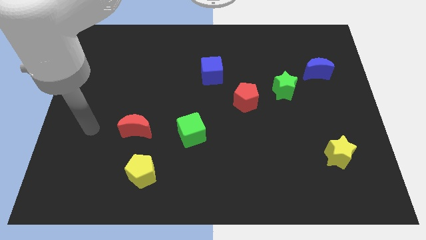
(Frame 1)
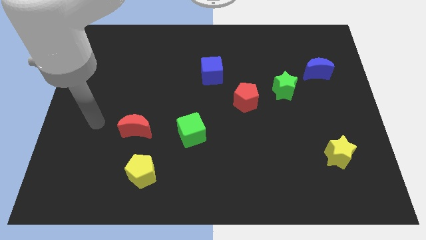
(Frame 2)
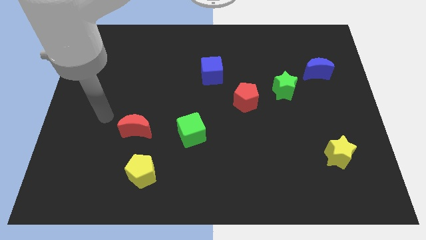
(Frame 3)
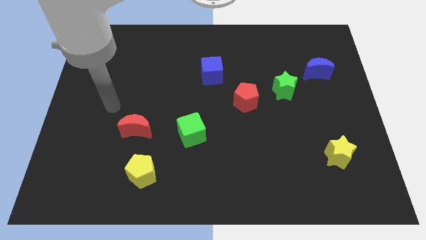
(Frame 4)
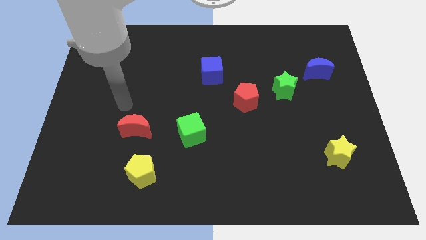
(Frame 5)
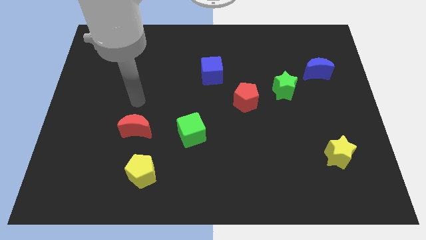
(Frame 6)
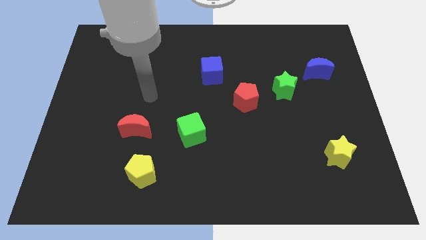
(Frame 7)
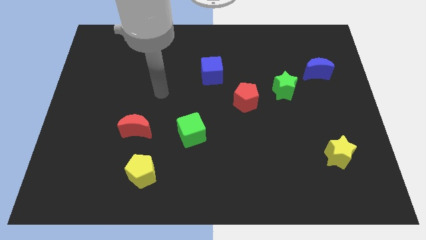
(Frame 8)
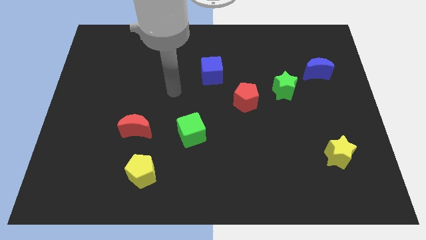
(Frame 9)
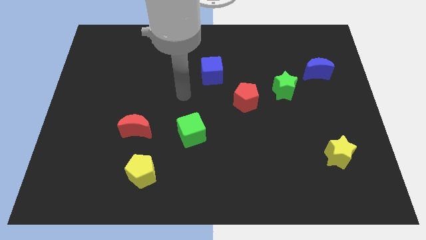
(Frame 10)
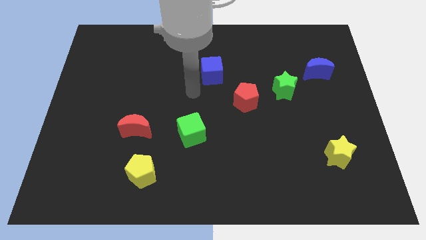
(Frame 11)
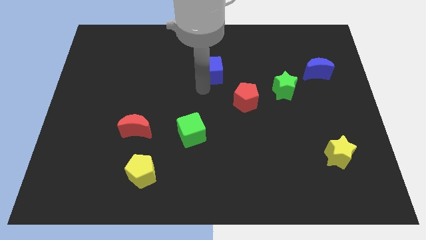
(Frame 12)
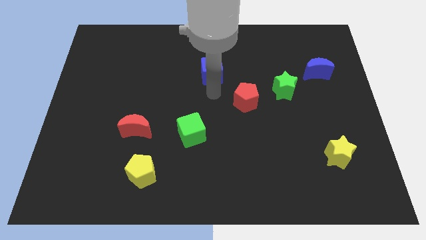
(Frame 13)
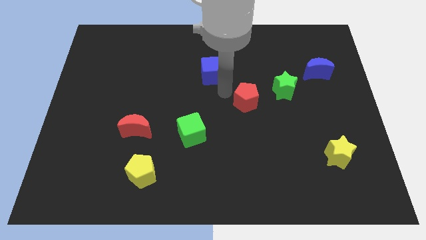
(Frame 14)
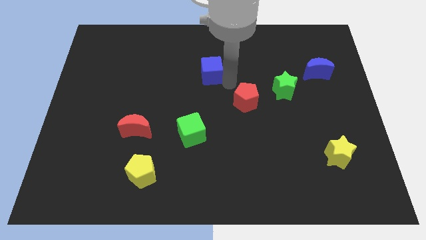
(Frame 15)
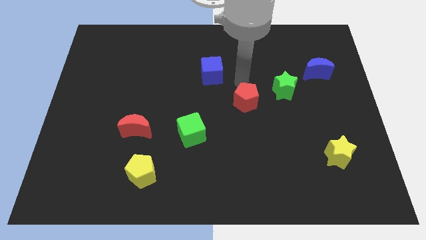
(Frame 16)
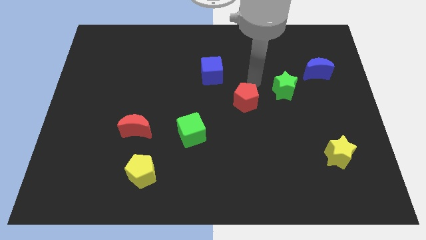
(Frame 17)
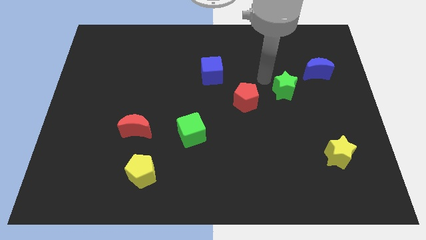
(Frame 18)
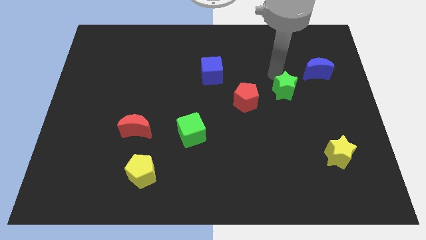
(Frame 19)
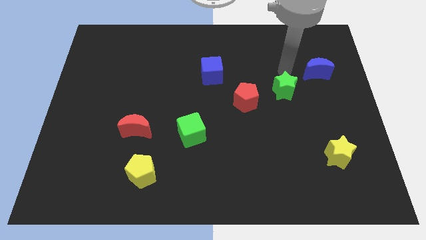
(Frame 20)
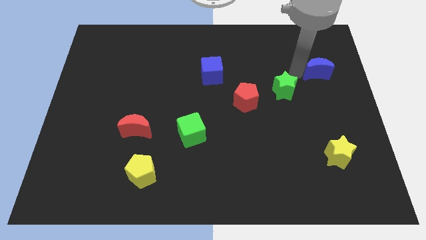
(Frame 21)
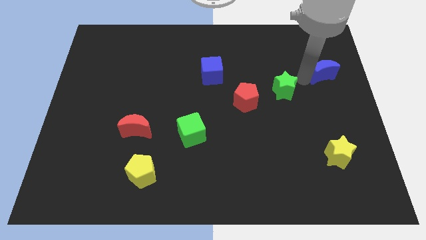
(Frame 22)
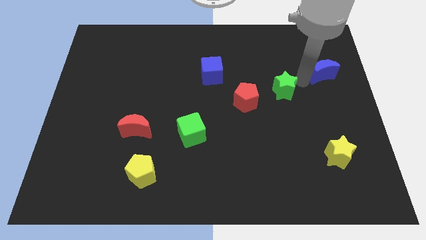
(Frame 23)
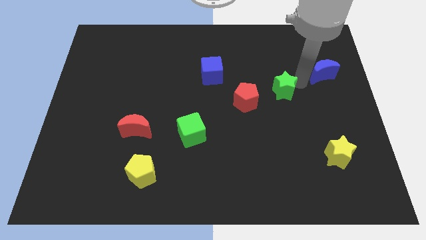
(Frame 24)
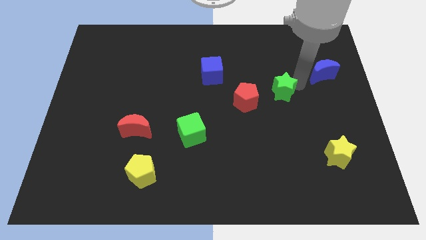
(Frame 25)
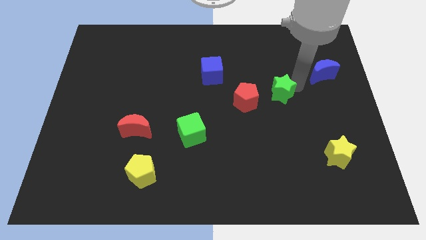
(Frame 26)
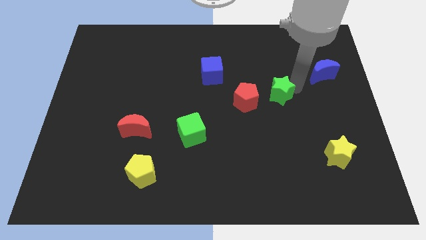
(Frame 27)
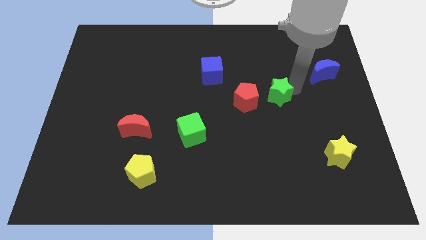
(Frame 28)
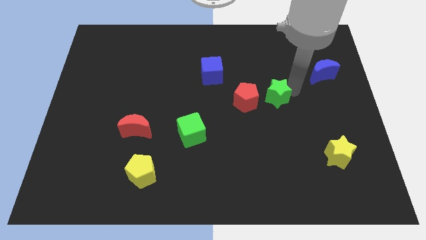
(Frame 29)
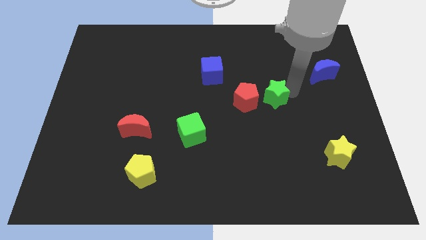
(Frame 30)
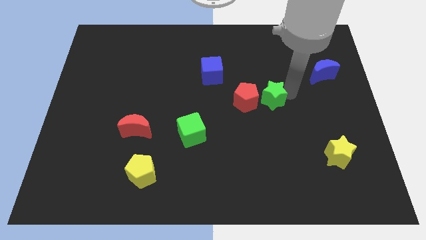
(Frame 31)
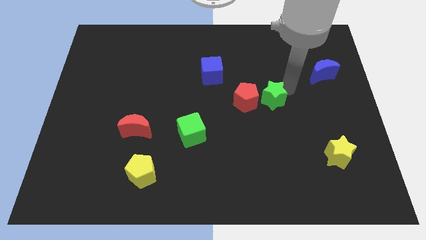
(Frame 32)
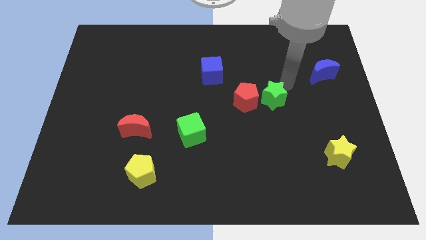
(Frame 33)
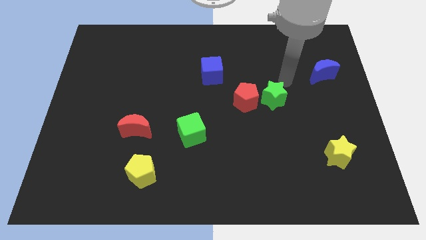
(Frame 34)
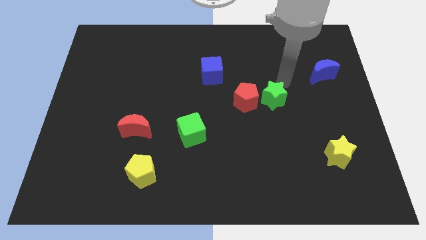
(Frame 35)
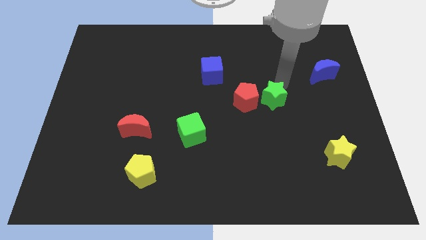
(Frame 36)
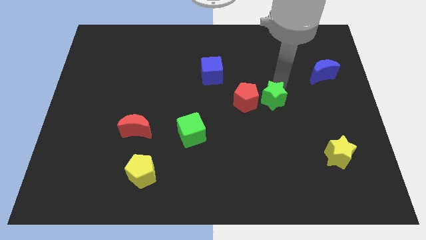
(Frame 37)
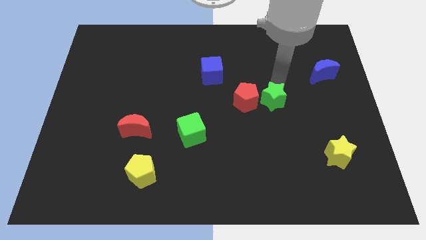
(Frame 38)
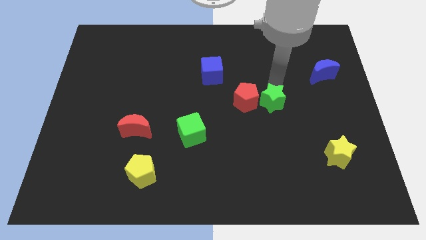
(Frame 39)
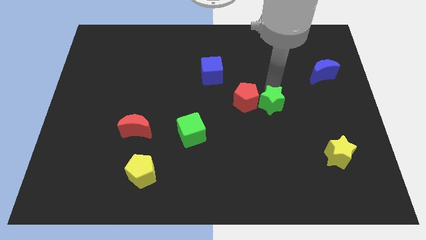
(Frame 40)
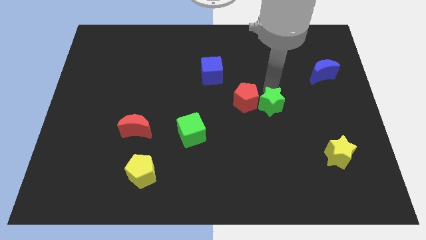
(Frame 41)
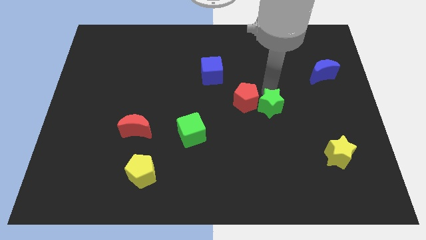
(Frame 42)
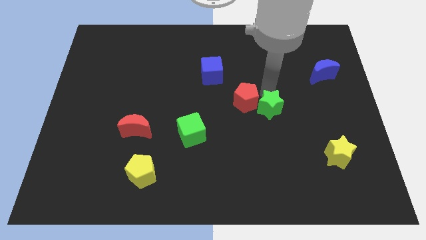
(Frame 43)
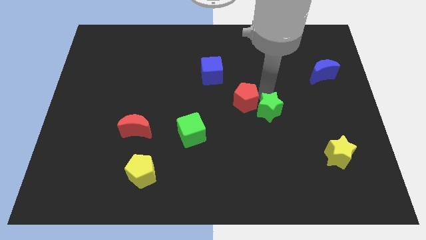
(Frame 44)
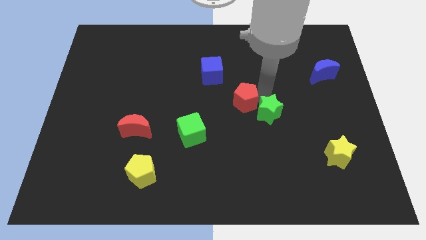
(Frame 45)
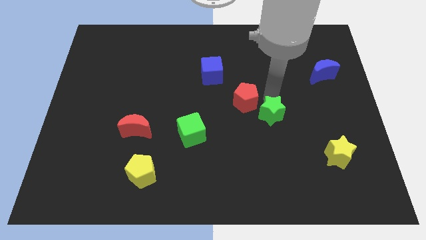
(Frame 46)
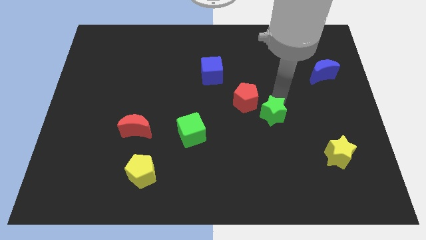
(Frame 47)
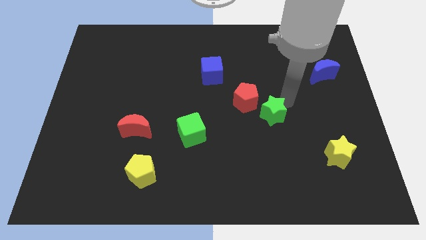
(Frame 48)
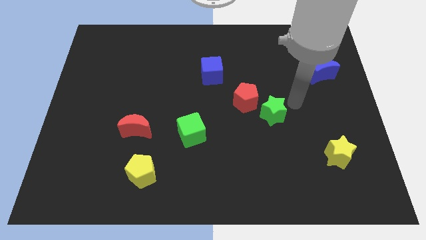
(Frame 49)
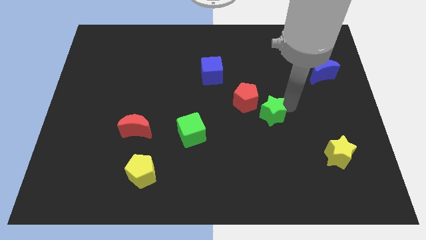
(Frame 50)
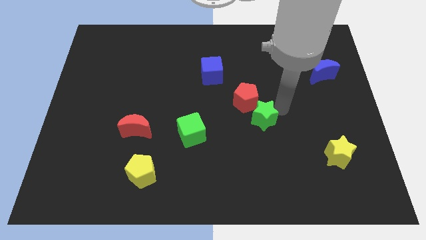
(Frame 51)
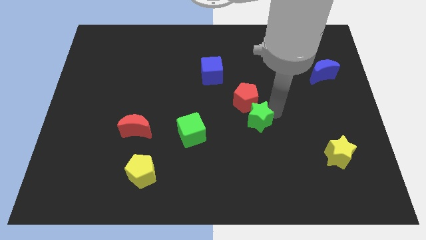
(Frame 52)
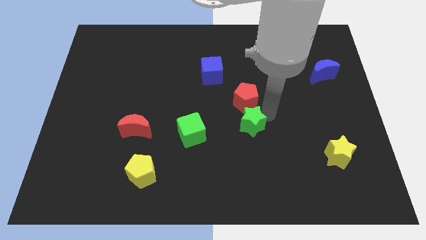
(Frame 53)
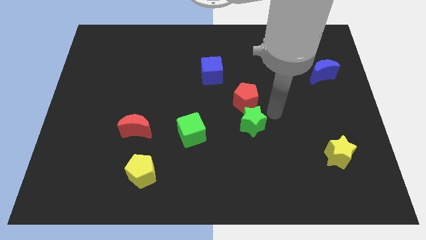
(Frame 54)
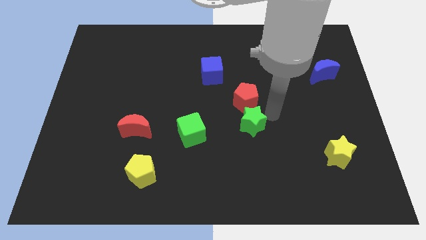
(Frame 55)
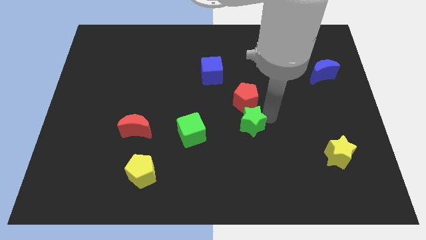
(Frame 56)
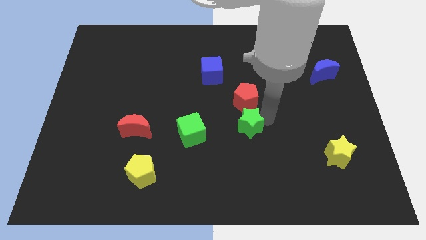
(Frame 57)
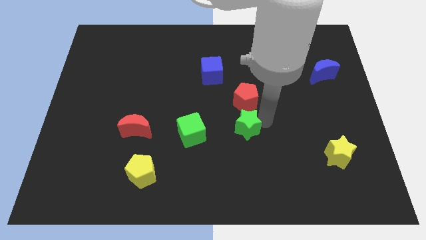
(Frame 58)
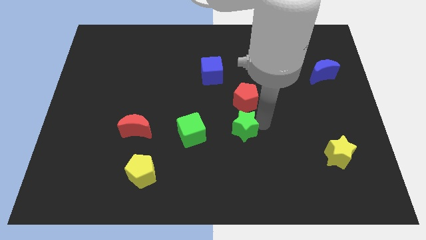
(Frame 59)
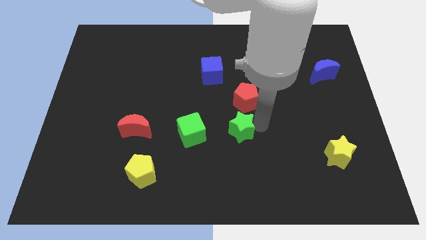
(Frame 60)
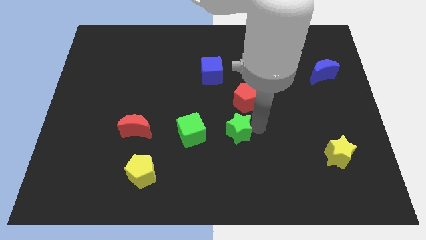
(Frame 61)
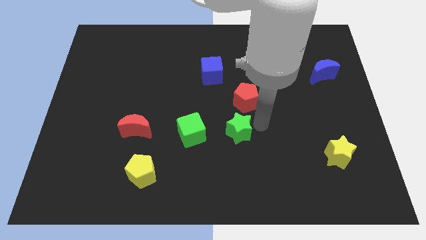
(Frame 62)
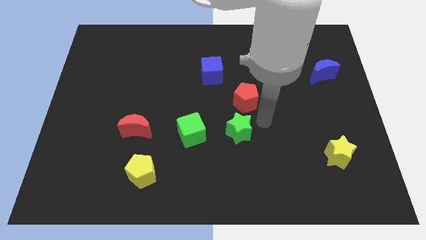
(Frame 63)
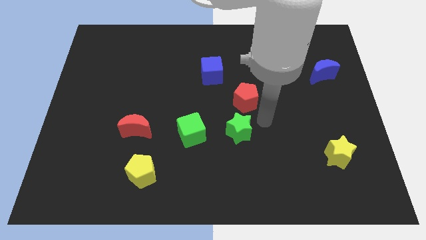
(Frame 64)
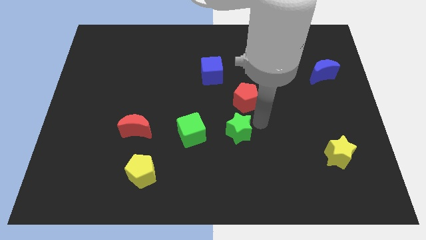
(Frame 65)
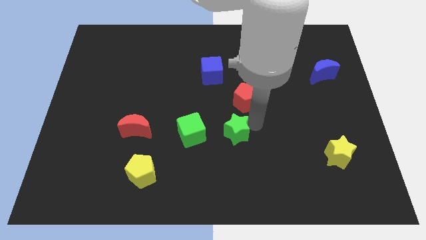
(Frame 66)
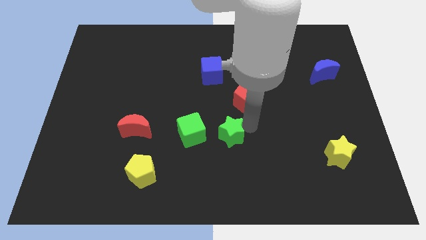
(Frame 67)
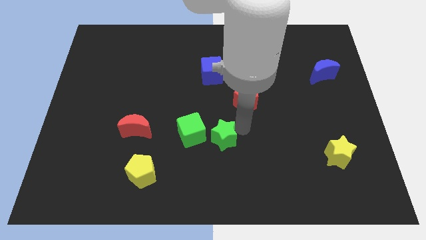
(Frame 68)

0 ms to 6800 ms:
slide the green star down and then left

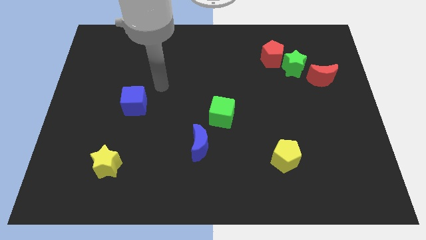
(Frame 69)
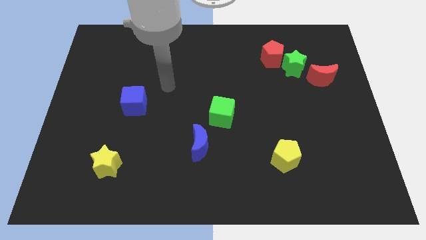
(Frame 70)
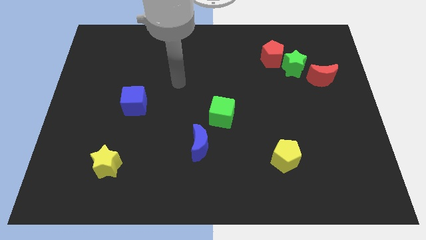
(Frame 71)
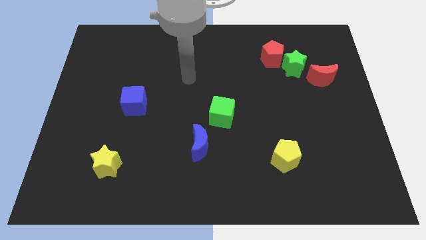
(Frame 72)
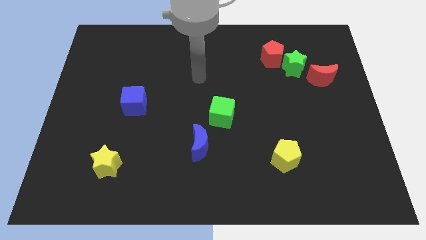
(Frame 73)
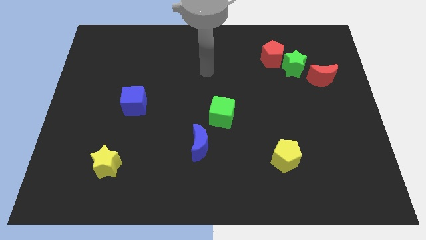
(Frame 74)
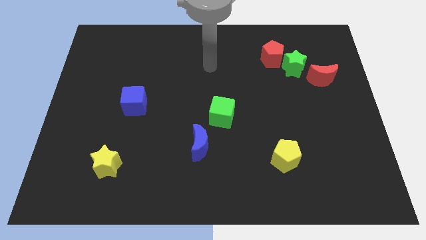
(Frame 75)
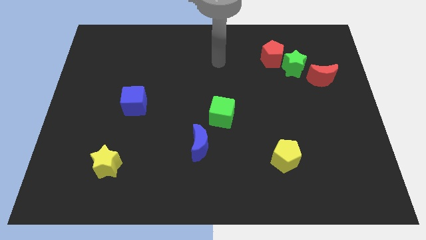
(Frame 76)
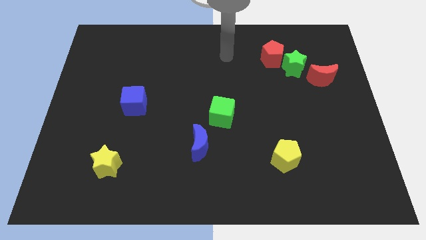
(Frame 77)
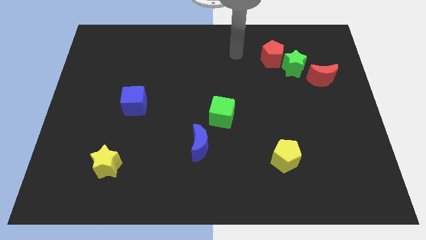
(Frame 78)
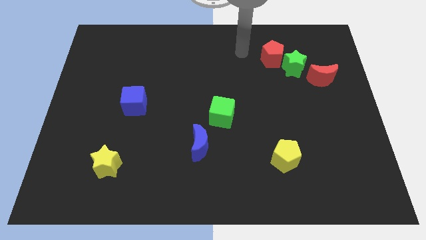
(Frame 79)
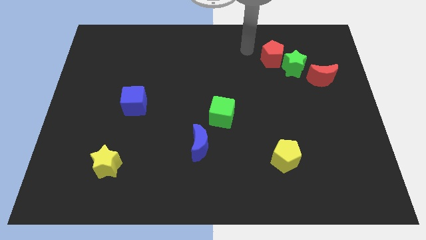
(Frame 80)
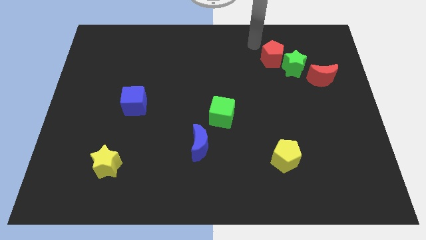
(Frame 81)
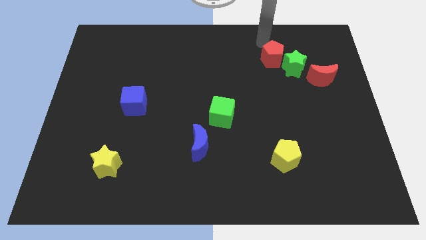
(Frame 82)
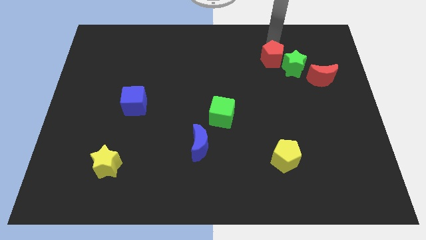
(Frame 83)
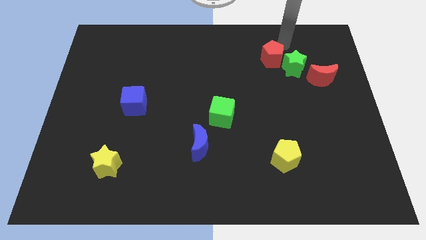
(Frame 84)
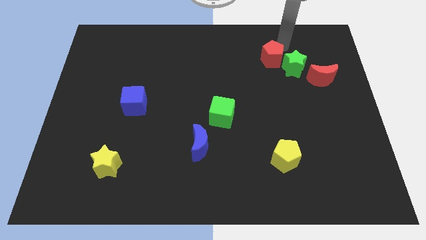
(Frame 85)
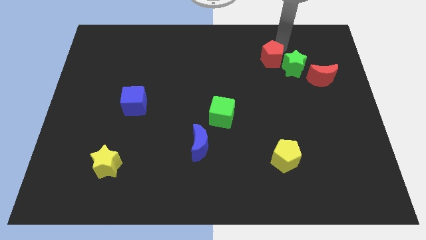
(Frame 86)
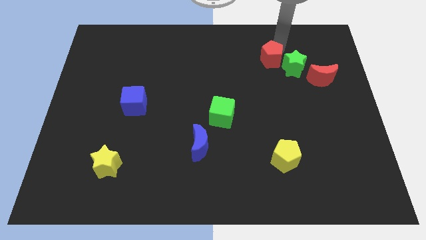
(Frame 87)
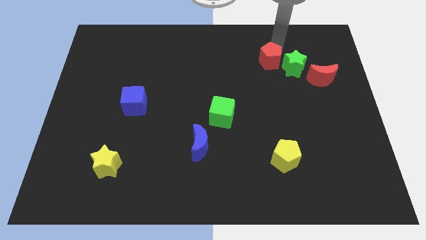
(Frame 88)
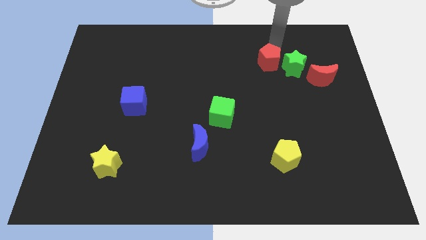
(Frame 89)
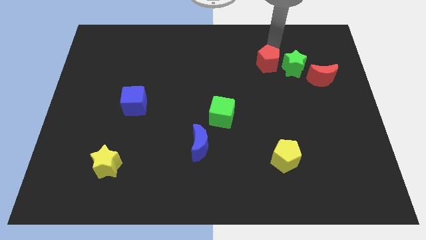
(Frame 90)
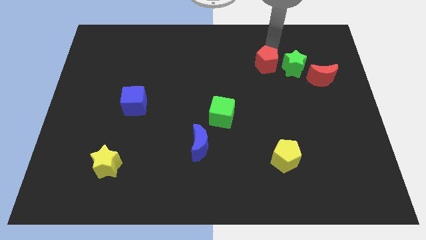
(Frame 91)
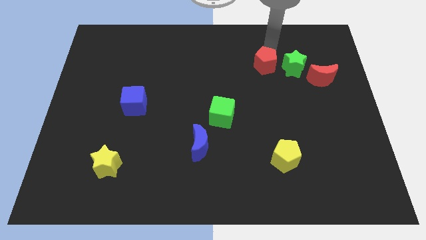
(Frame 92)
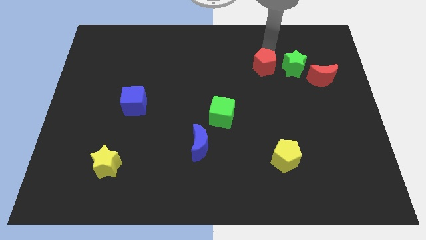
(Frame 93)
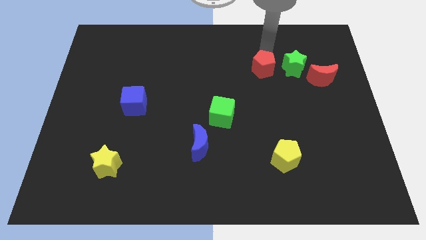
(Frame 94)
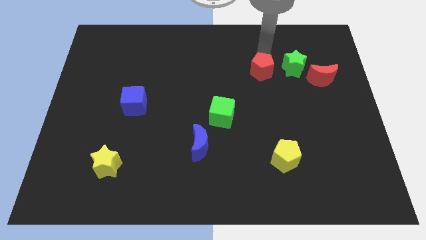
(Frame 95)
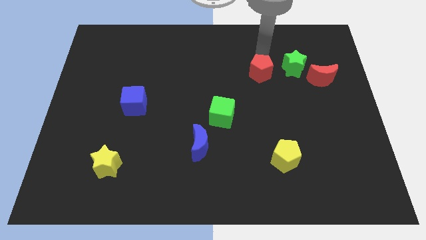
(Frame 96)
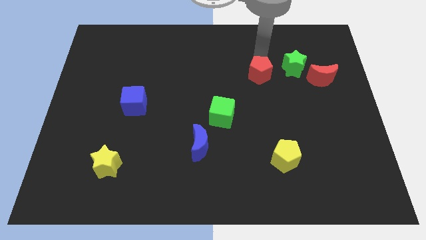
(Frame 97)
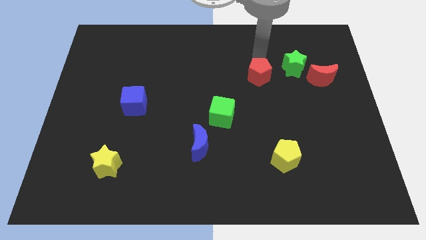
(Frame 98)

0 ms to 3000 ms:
move the red pentagon a little bit downwards and to the left diagonally
